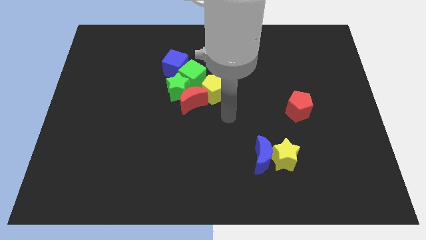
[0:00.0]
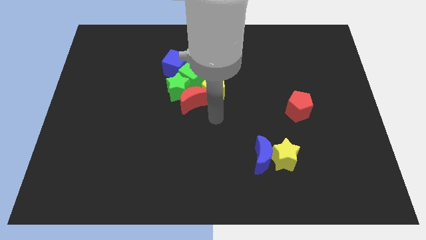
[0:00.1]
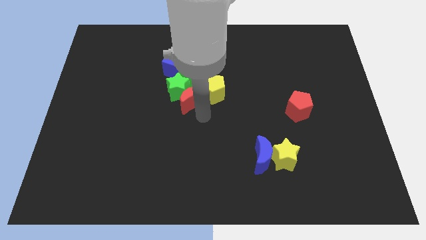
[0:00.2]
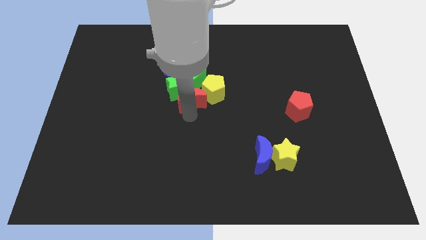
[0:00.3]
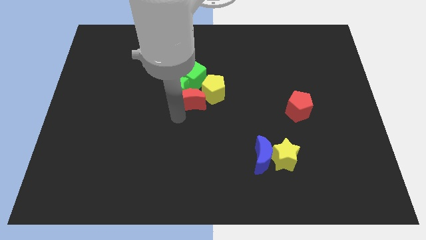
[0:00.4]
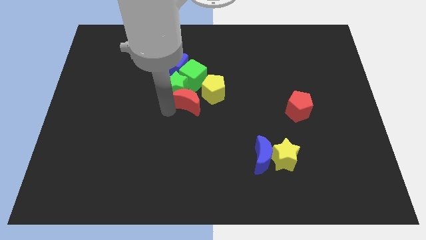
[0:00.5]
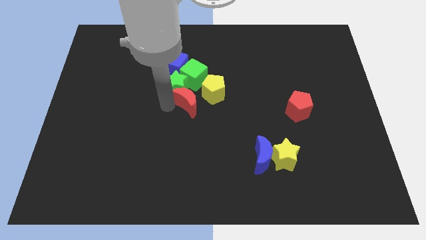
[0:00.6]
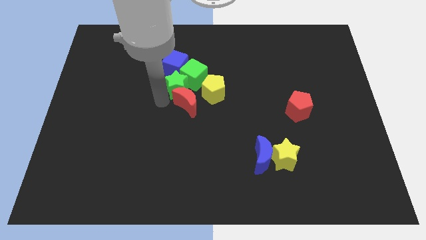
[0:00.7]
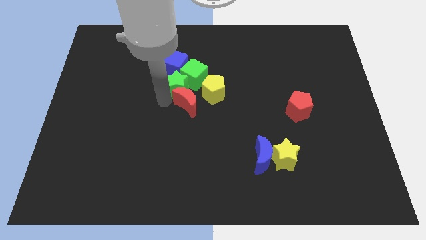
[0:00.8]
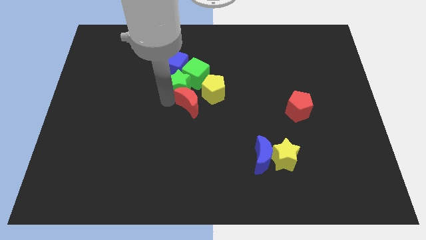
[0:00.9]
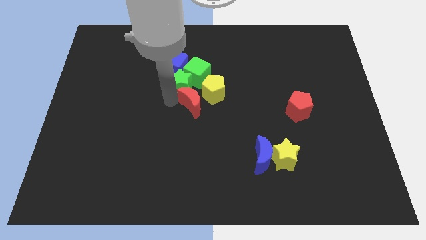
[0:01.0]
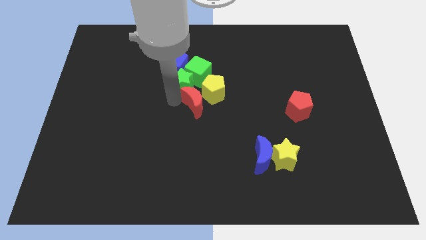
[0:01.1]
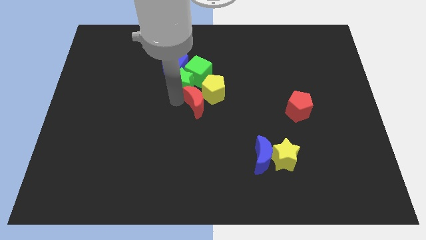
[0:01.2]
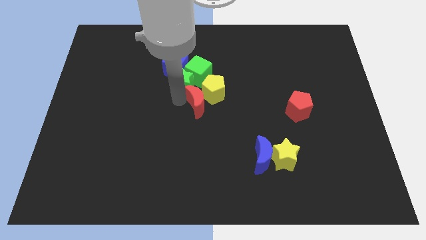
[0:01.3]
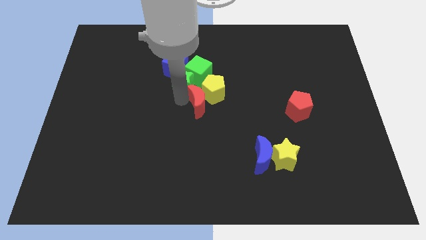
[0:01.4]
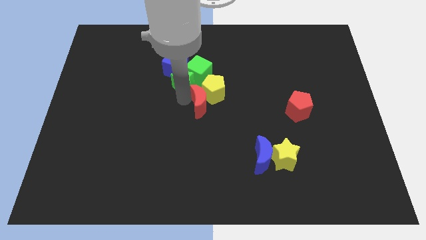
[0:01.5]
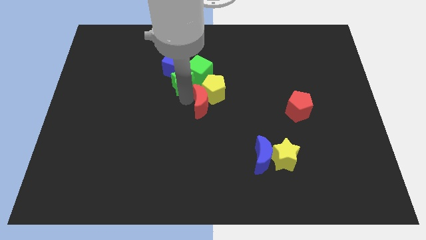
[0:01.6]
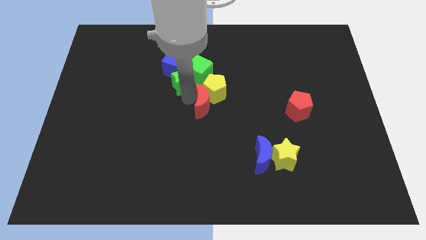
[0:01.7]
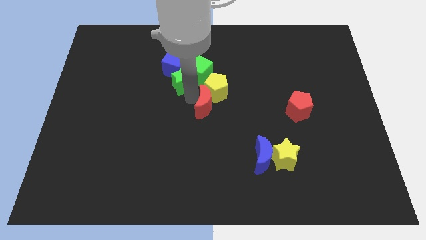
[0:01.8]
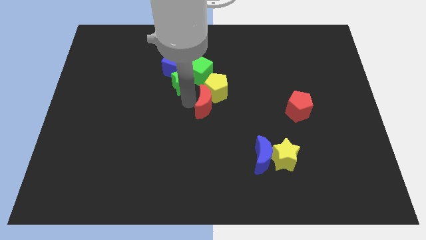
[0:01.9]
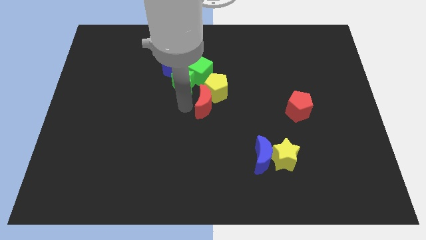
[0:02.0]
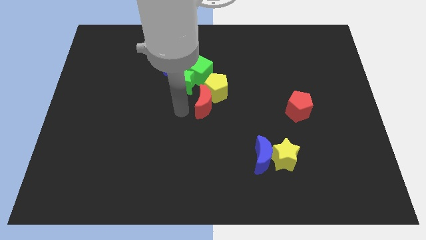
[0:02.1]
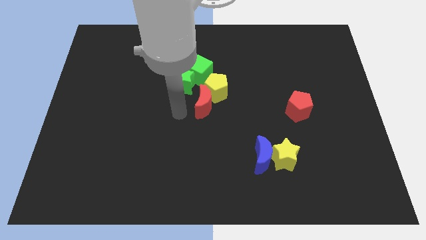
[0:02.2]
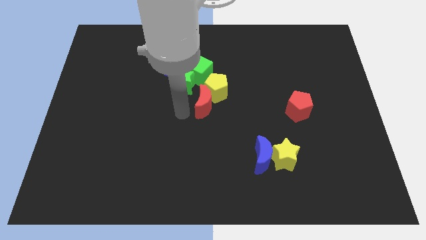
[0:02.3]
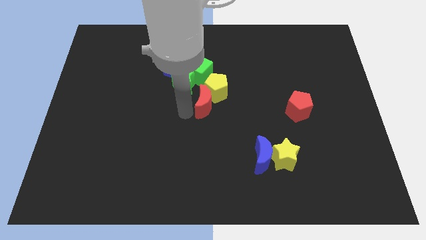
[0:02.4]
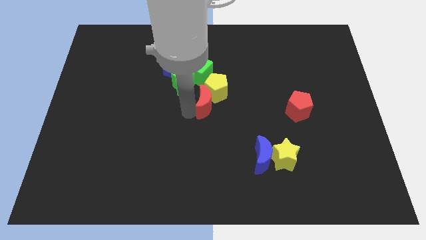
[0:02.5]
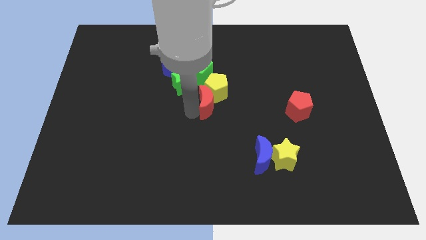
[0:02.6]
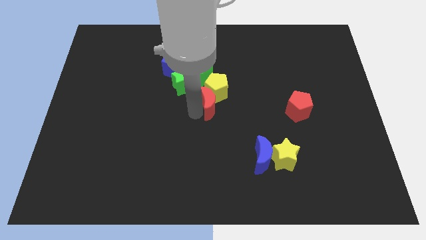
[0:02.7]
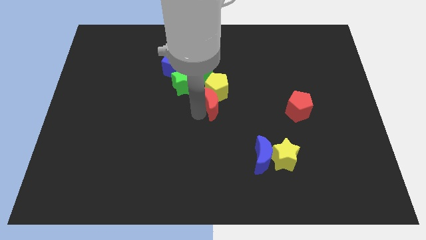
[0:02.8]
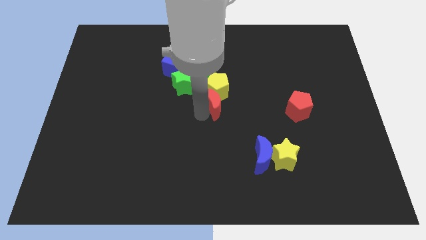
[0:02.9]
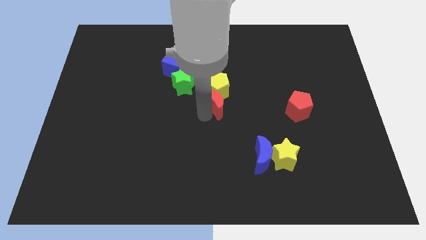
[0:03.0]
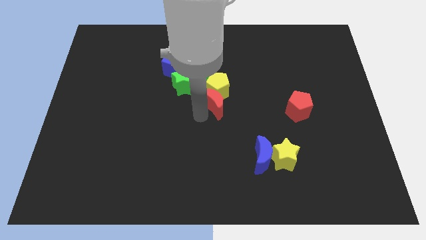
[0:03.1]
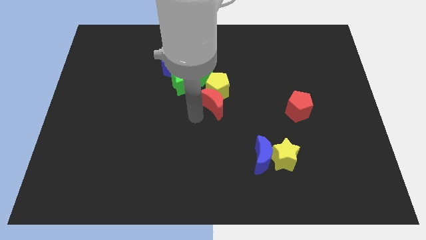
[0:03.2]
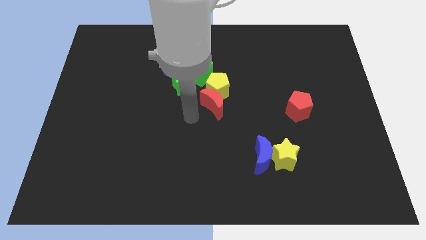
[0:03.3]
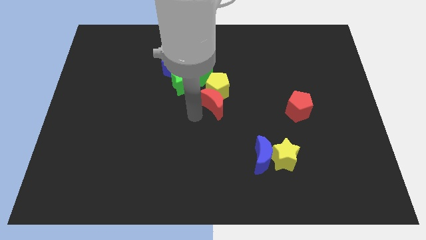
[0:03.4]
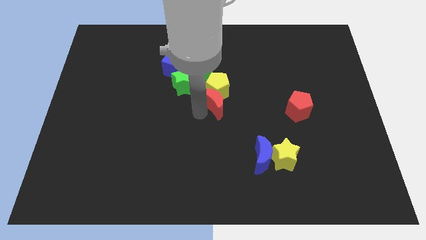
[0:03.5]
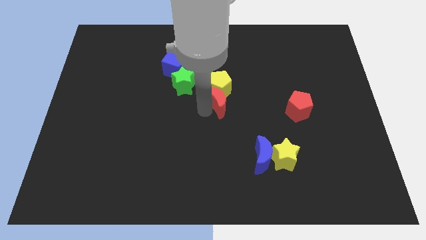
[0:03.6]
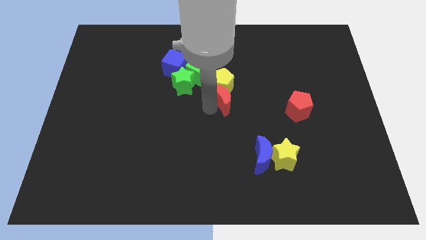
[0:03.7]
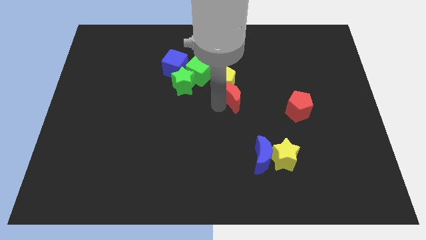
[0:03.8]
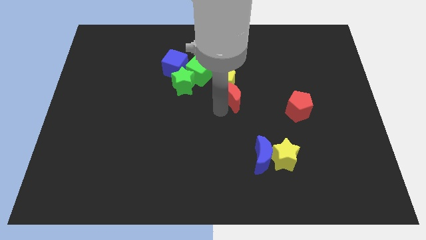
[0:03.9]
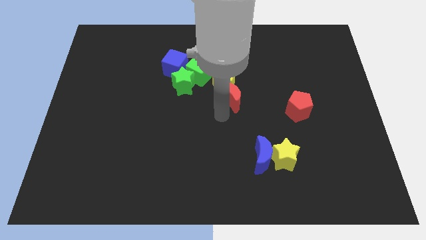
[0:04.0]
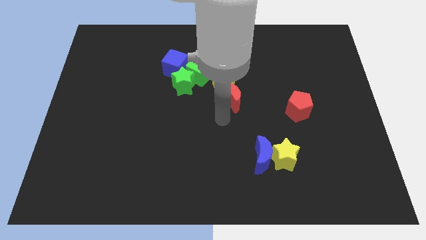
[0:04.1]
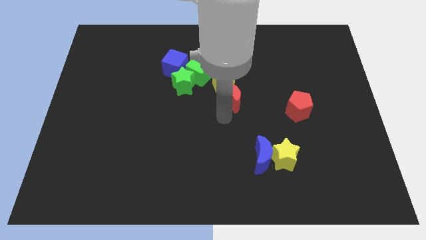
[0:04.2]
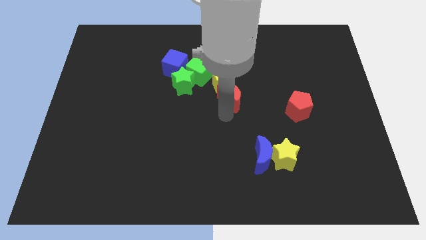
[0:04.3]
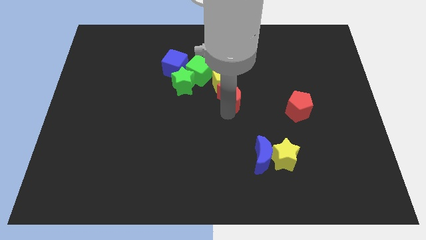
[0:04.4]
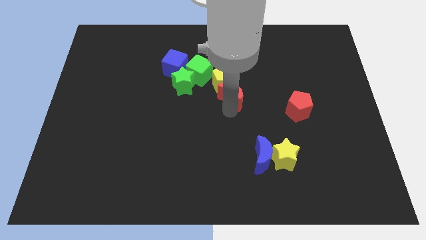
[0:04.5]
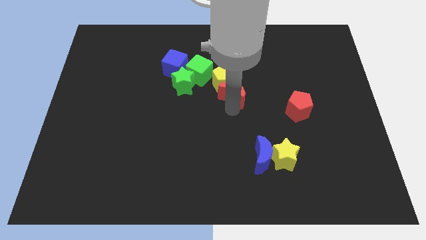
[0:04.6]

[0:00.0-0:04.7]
move the red moon somewhat diagonally up and right

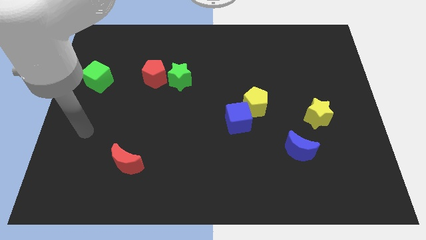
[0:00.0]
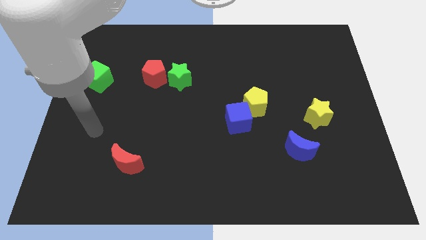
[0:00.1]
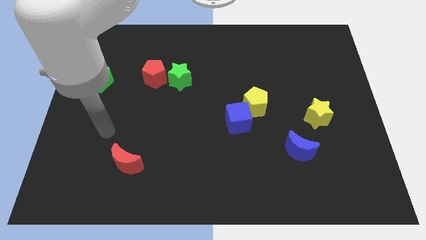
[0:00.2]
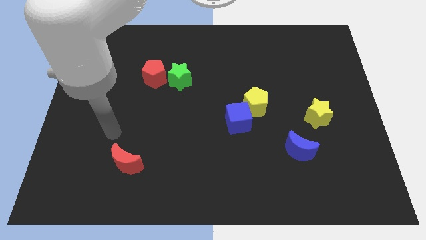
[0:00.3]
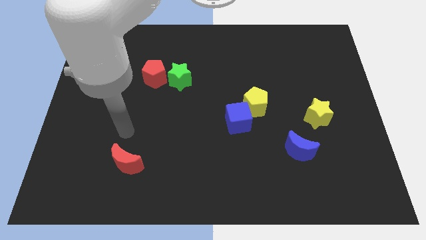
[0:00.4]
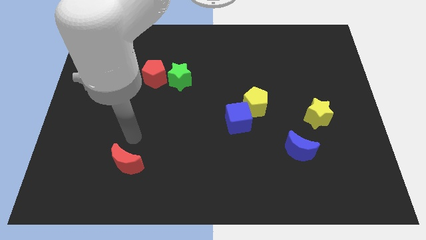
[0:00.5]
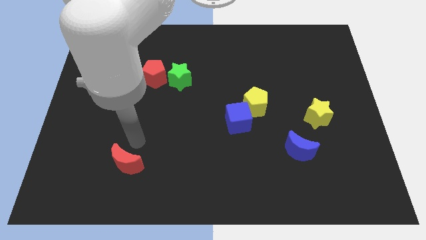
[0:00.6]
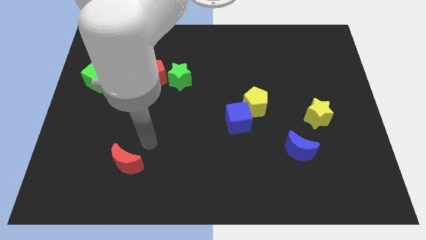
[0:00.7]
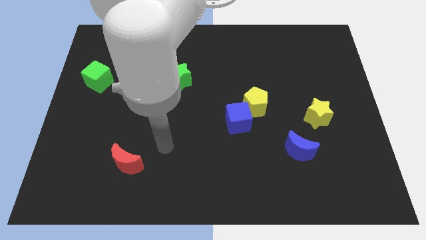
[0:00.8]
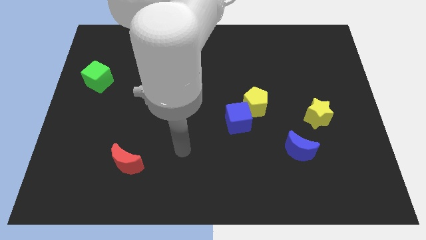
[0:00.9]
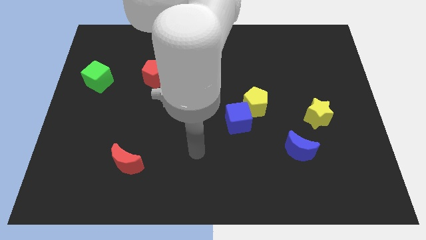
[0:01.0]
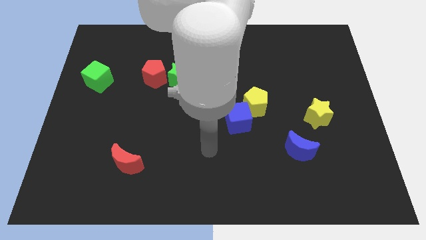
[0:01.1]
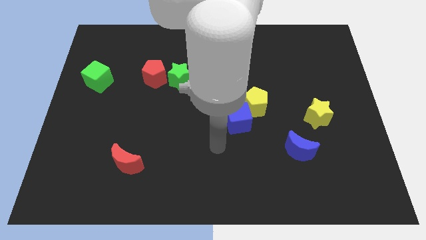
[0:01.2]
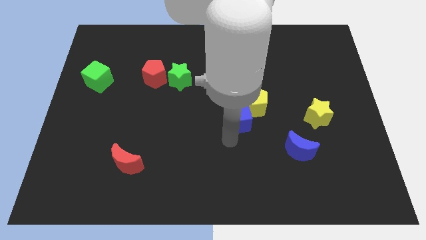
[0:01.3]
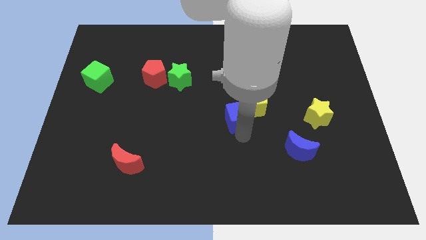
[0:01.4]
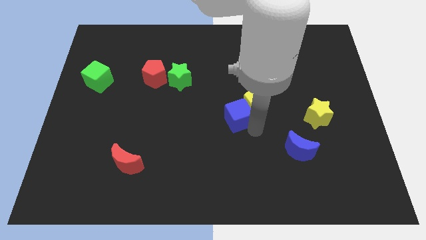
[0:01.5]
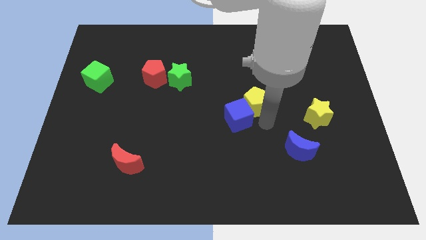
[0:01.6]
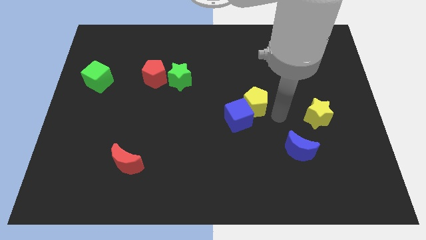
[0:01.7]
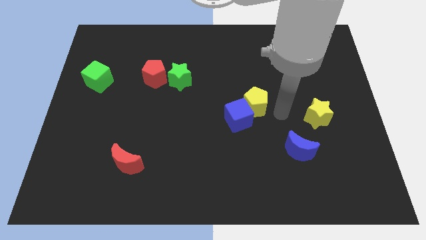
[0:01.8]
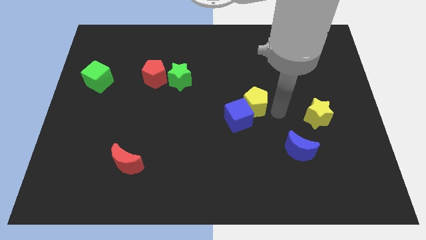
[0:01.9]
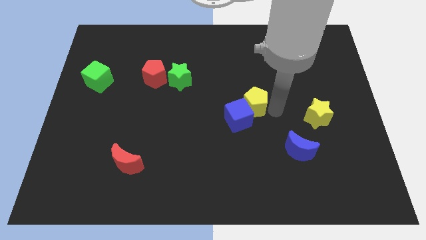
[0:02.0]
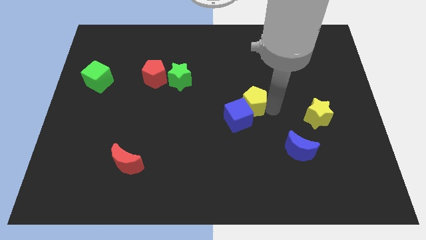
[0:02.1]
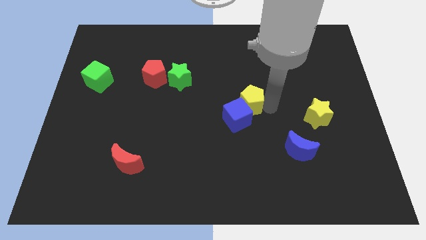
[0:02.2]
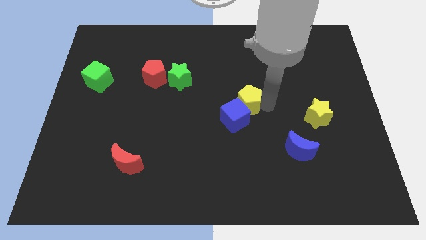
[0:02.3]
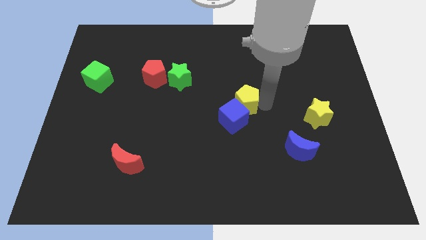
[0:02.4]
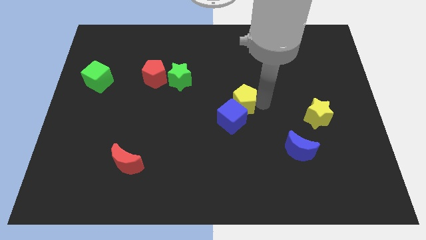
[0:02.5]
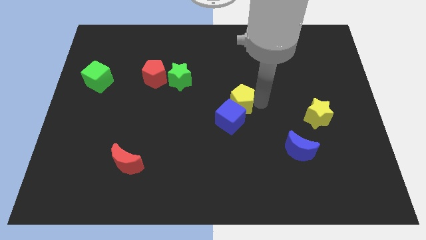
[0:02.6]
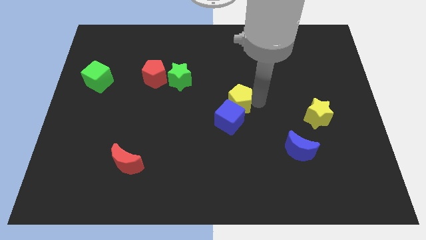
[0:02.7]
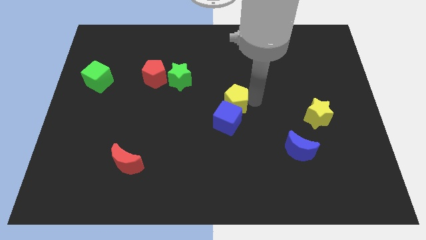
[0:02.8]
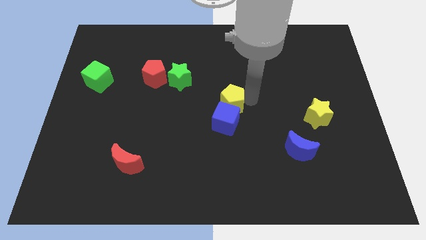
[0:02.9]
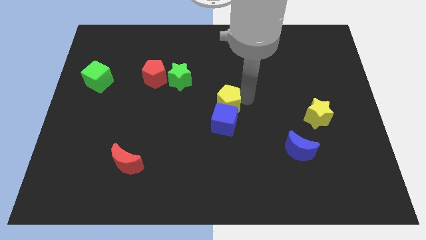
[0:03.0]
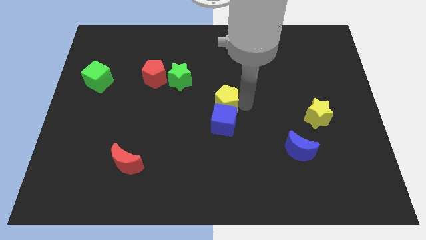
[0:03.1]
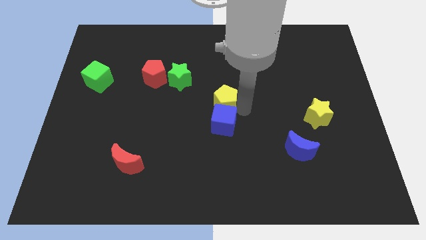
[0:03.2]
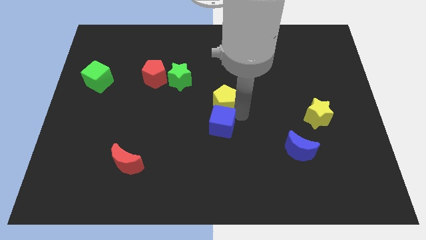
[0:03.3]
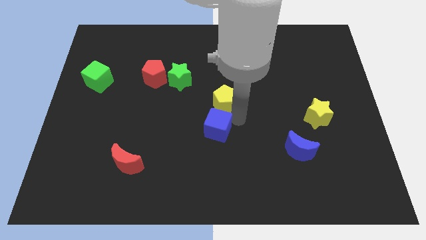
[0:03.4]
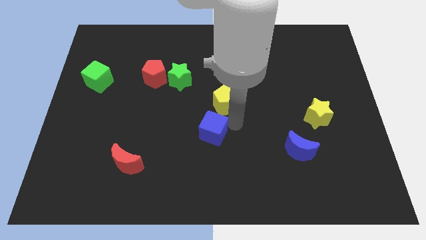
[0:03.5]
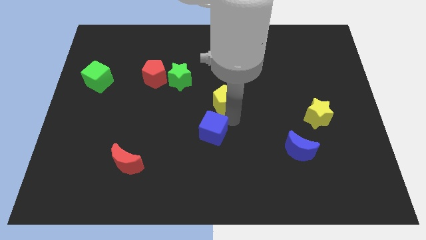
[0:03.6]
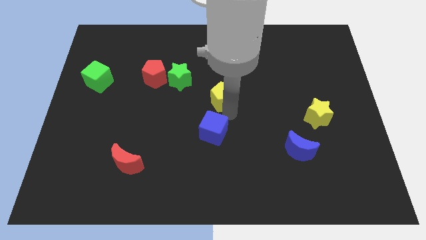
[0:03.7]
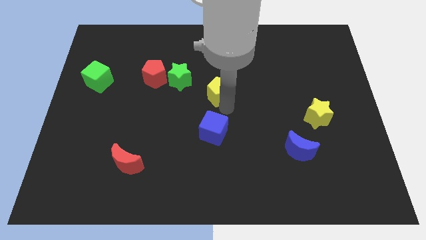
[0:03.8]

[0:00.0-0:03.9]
move the yellow pentagon slightly upwards and to the left

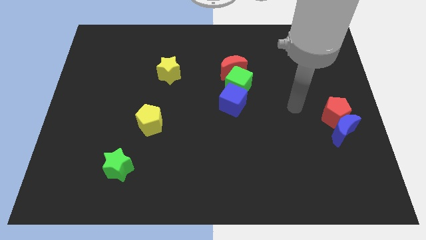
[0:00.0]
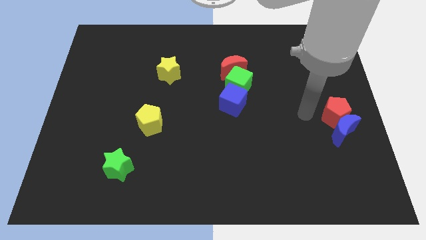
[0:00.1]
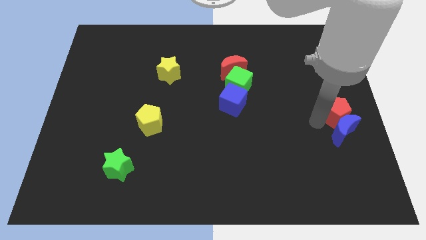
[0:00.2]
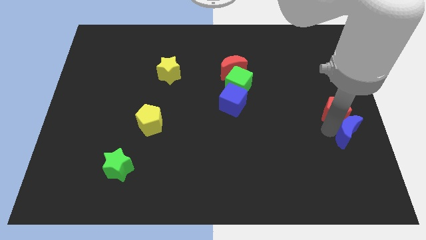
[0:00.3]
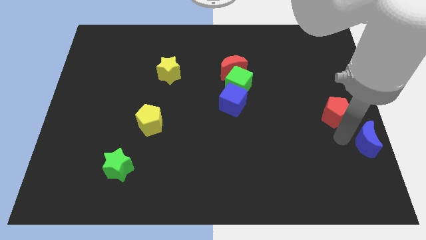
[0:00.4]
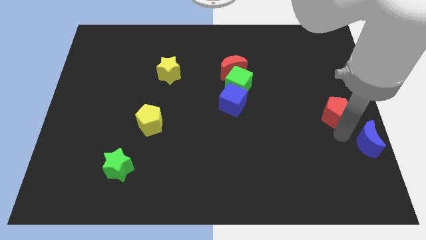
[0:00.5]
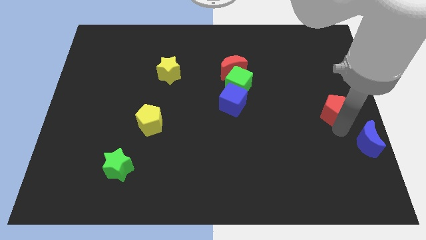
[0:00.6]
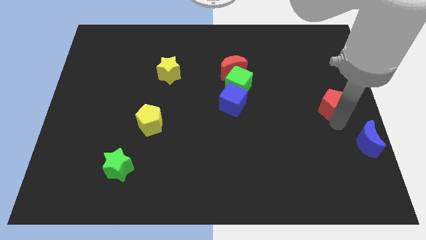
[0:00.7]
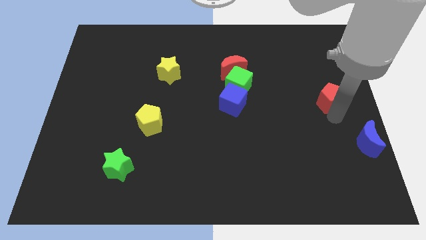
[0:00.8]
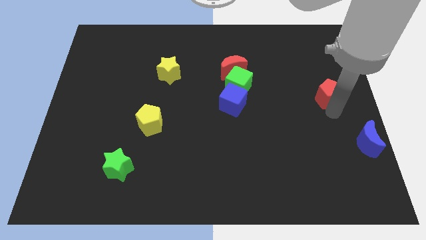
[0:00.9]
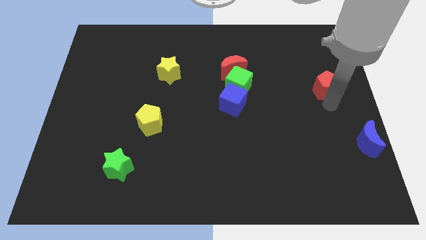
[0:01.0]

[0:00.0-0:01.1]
push the red pentagon up a little
